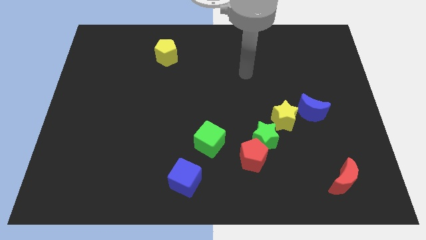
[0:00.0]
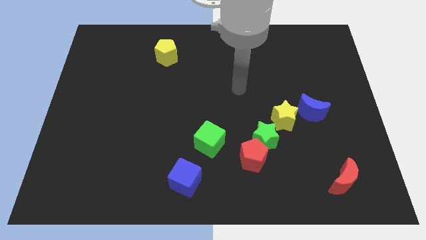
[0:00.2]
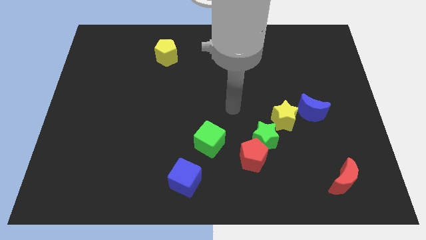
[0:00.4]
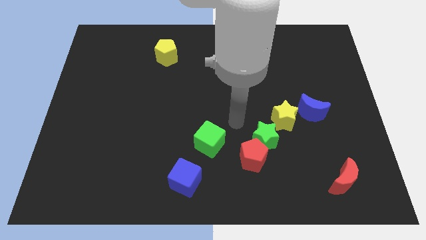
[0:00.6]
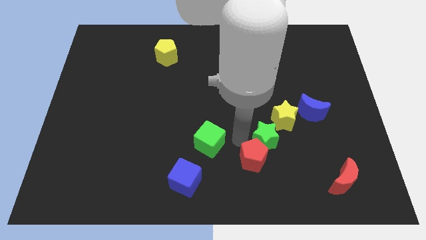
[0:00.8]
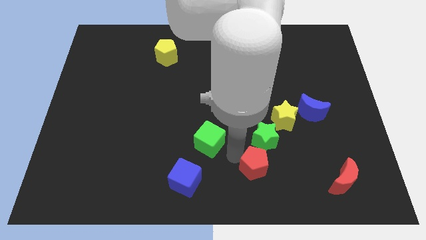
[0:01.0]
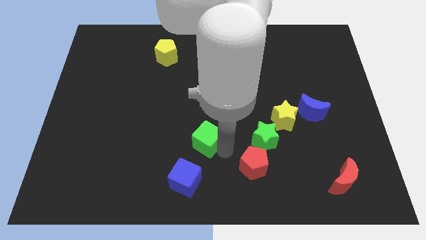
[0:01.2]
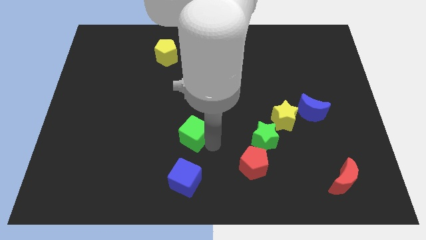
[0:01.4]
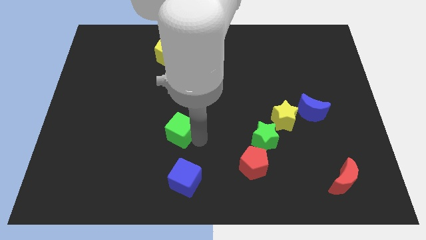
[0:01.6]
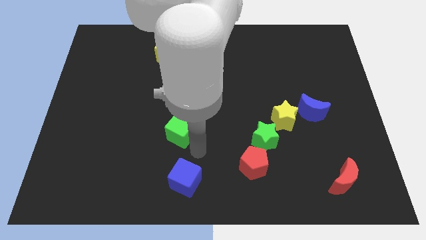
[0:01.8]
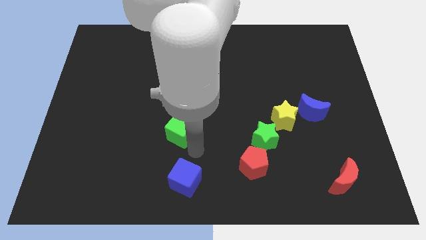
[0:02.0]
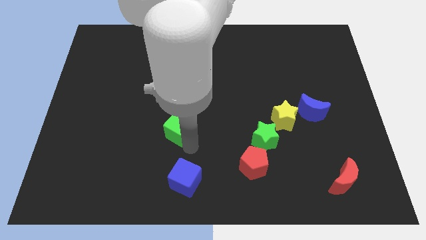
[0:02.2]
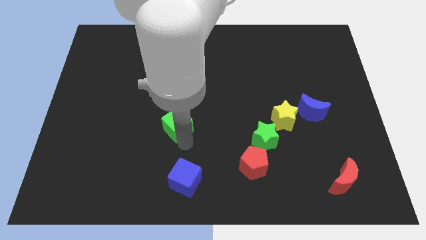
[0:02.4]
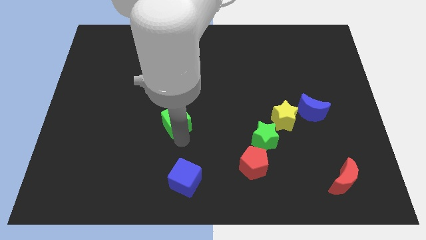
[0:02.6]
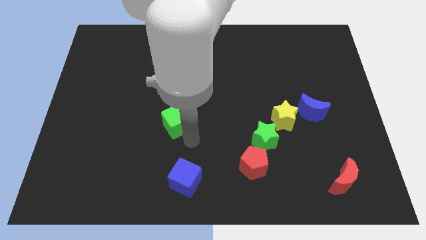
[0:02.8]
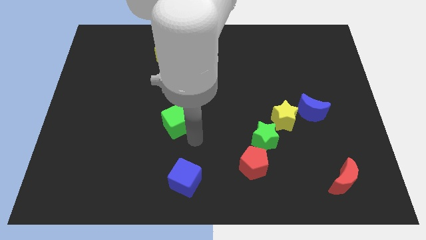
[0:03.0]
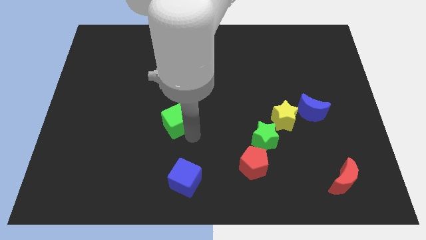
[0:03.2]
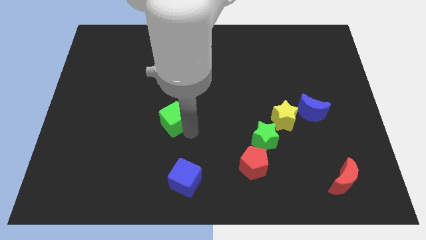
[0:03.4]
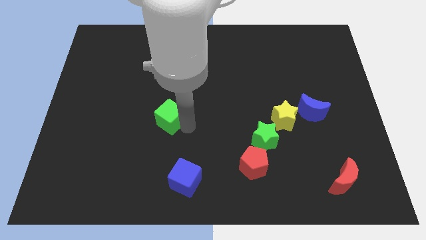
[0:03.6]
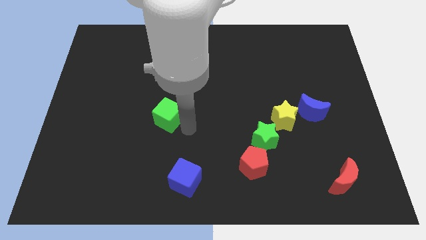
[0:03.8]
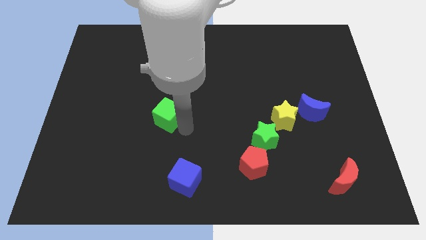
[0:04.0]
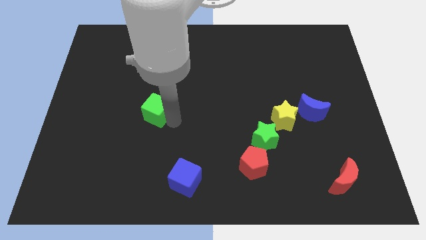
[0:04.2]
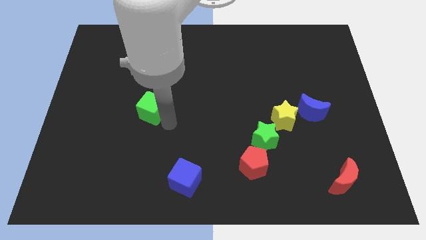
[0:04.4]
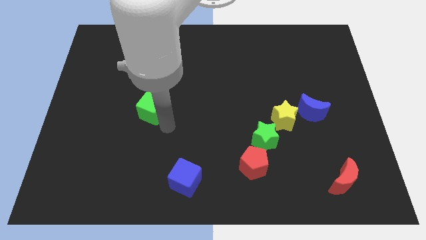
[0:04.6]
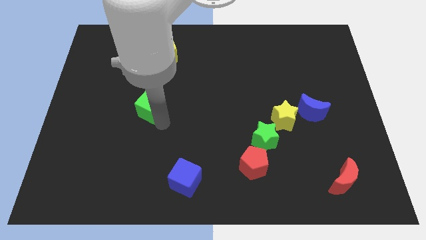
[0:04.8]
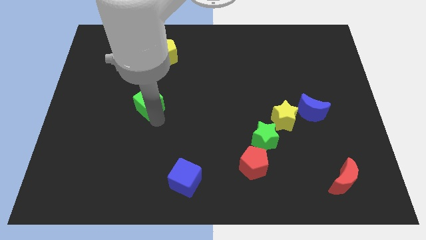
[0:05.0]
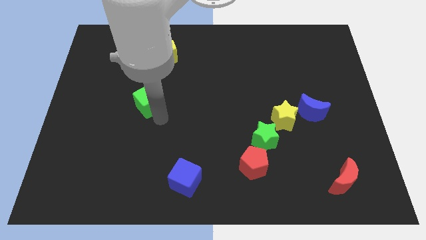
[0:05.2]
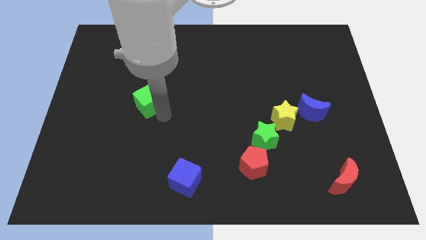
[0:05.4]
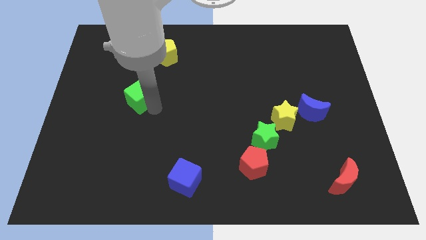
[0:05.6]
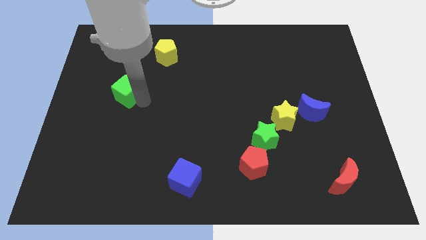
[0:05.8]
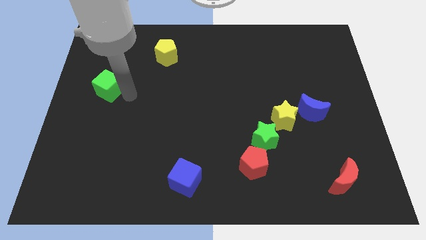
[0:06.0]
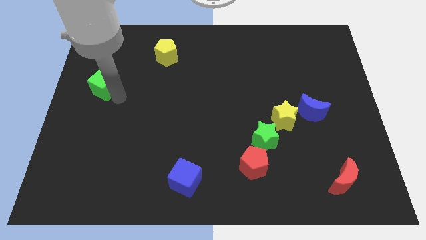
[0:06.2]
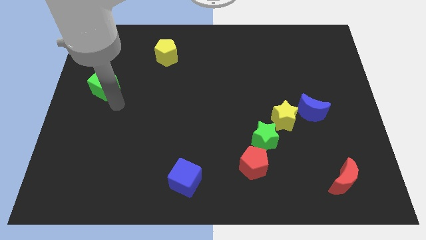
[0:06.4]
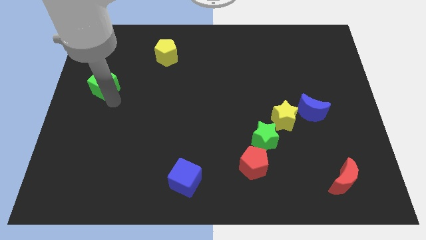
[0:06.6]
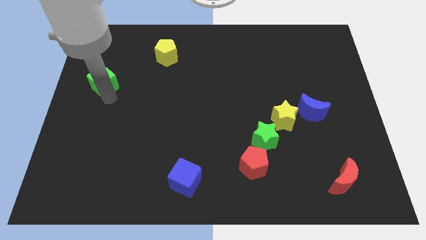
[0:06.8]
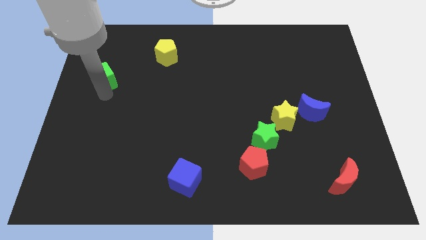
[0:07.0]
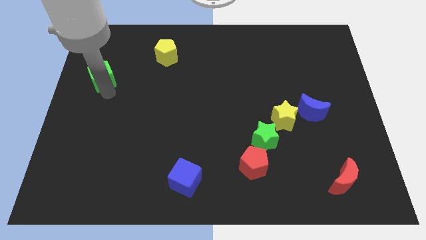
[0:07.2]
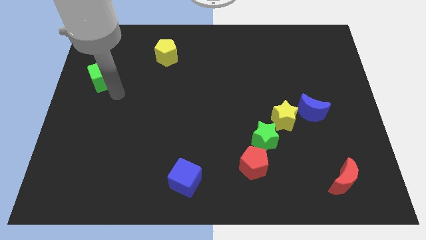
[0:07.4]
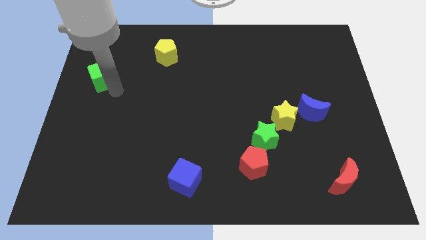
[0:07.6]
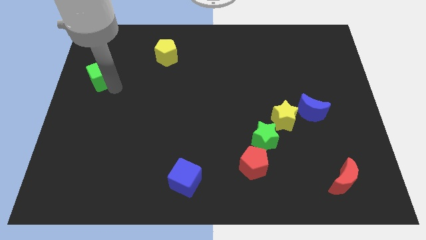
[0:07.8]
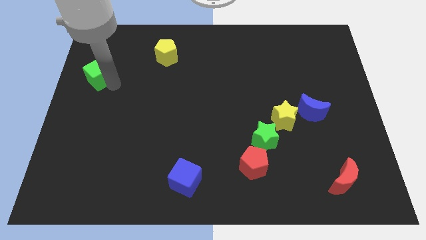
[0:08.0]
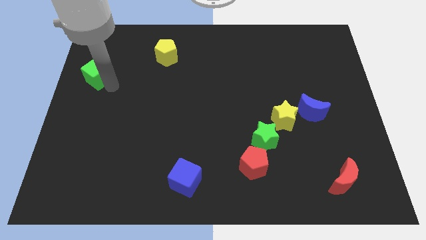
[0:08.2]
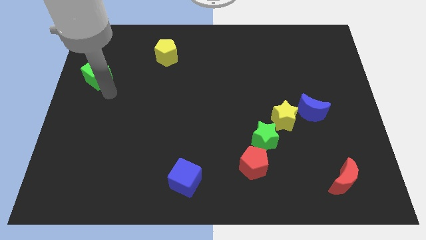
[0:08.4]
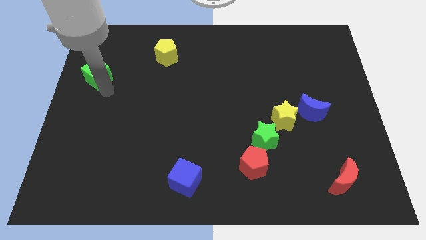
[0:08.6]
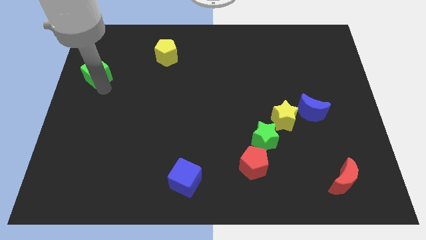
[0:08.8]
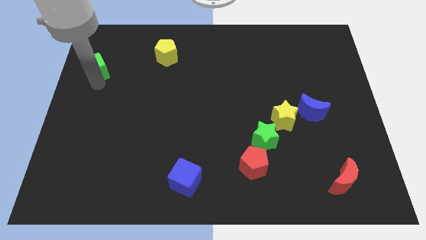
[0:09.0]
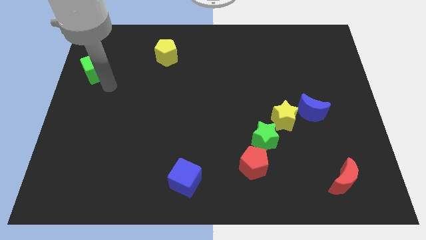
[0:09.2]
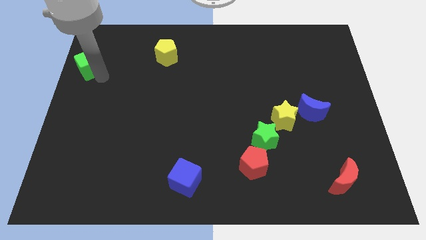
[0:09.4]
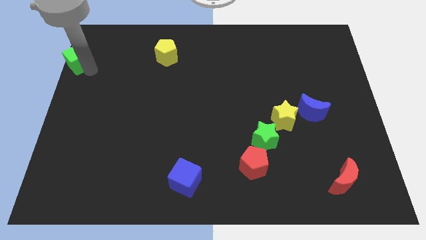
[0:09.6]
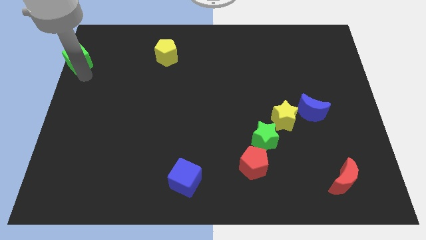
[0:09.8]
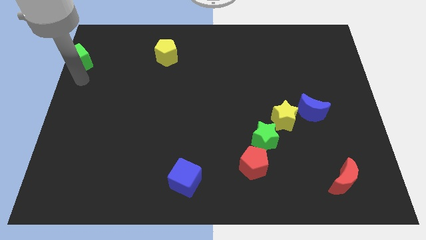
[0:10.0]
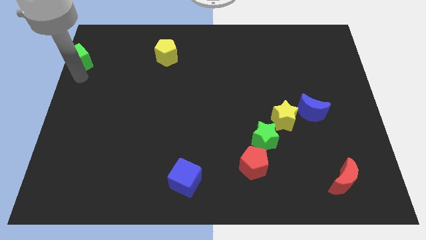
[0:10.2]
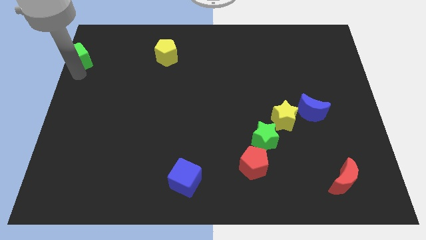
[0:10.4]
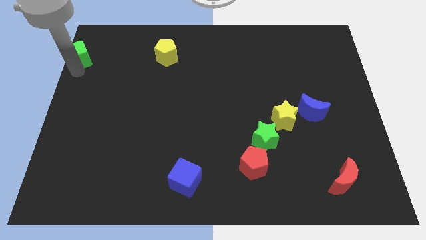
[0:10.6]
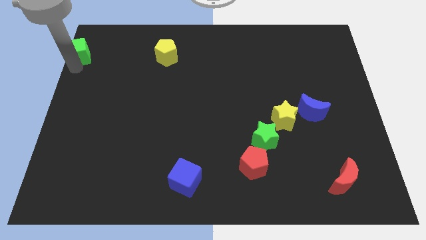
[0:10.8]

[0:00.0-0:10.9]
slide the green cube to the top left corner
